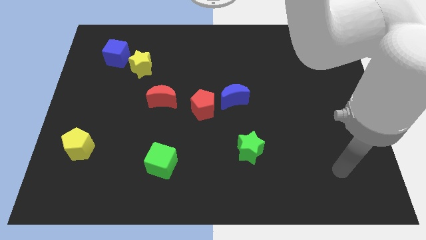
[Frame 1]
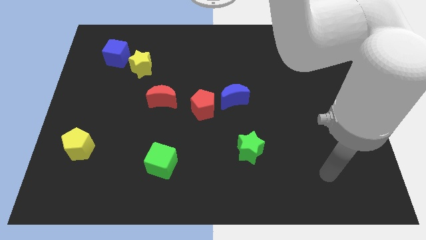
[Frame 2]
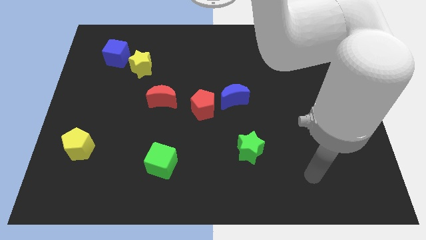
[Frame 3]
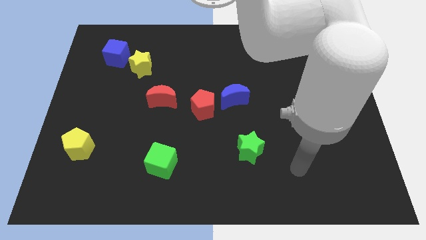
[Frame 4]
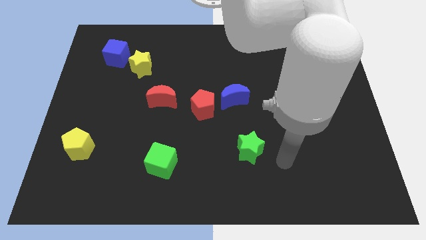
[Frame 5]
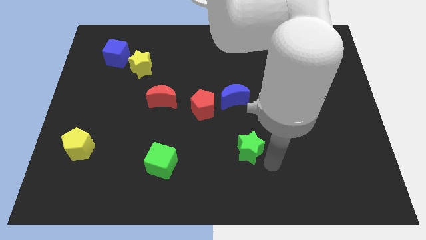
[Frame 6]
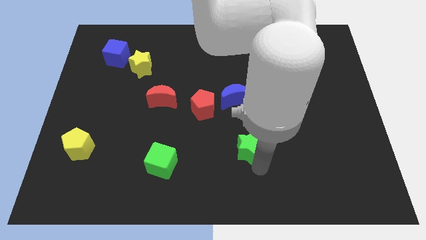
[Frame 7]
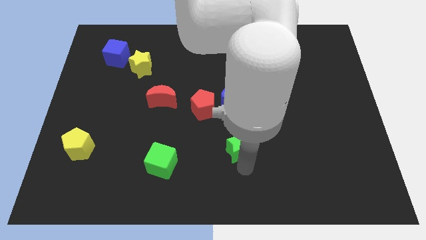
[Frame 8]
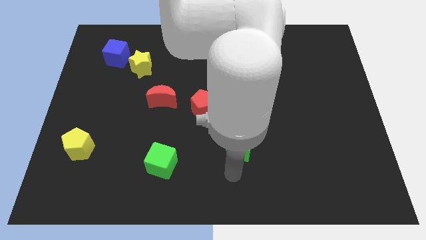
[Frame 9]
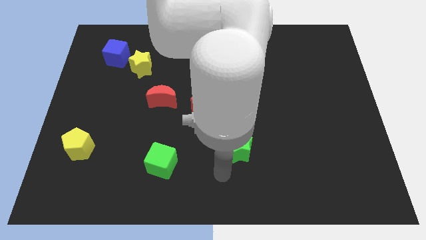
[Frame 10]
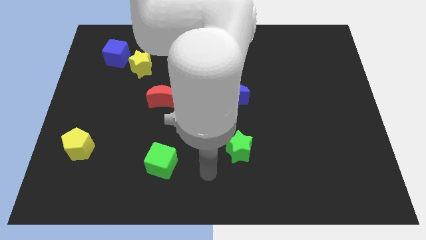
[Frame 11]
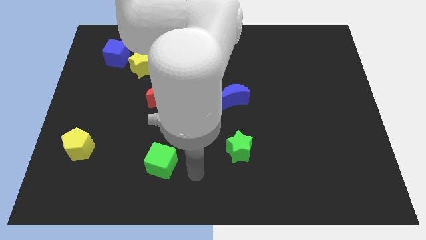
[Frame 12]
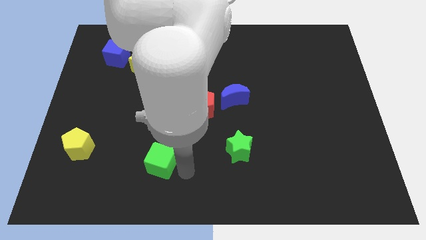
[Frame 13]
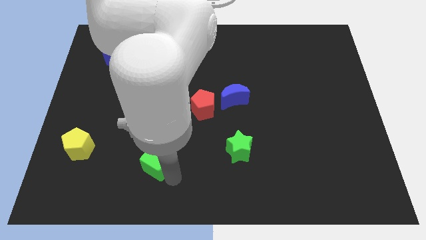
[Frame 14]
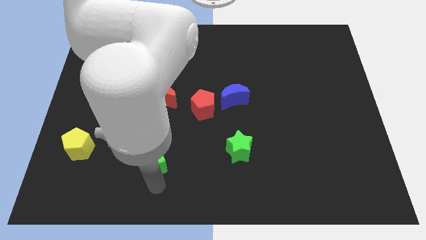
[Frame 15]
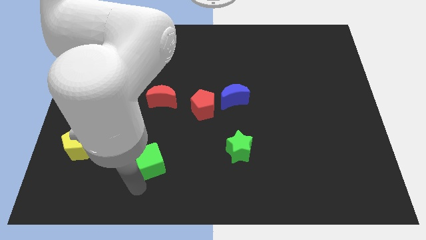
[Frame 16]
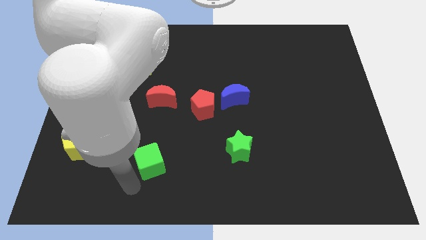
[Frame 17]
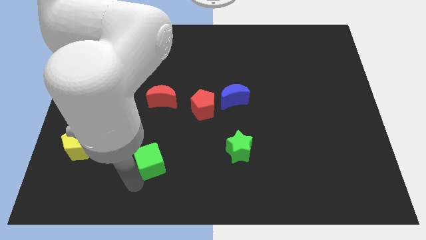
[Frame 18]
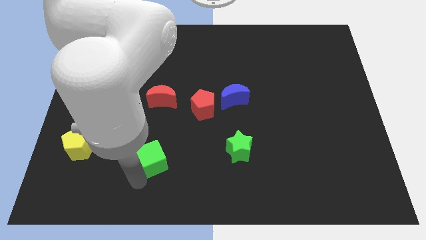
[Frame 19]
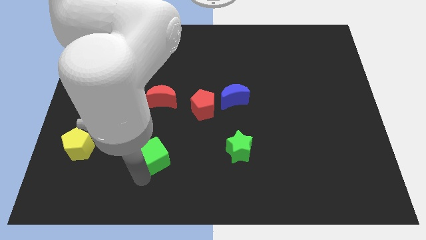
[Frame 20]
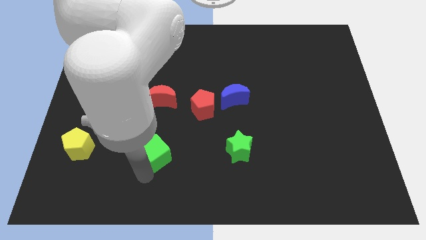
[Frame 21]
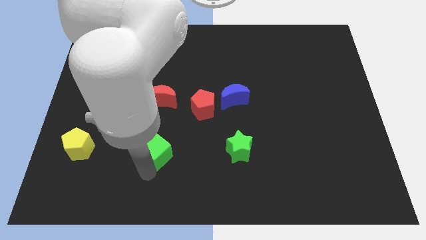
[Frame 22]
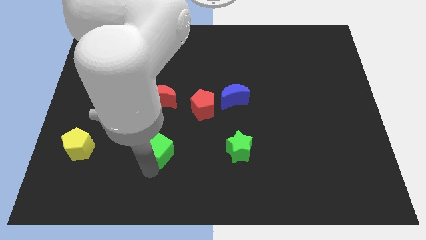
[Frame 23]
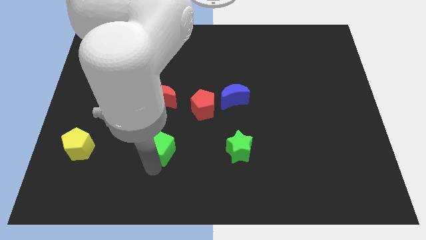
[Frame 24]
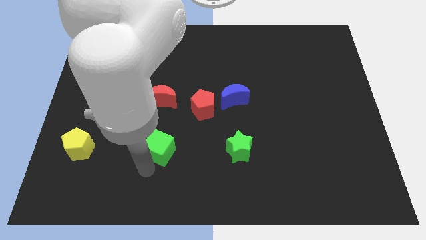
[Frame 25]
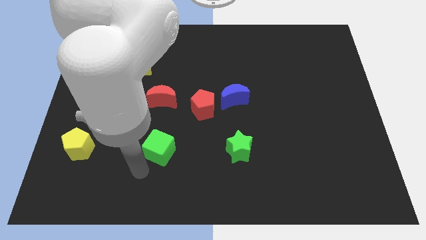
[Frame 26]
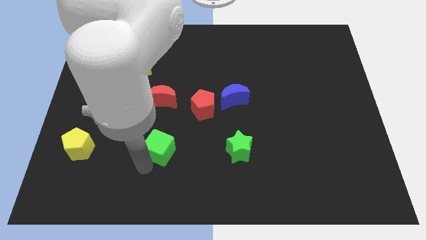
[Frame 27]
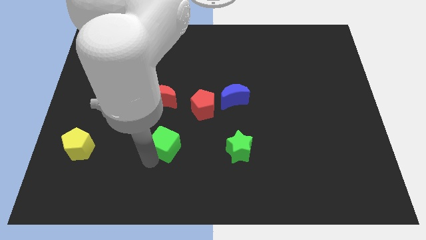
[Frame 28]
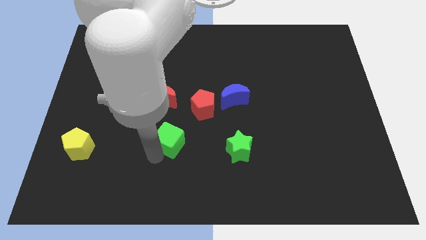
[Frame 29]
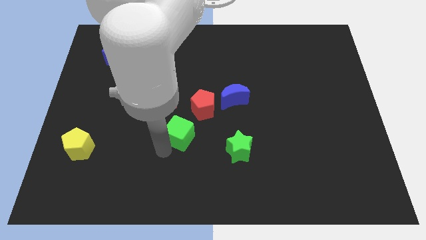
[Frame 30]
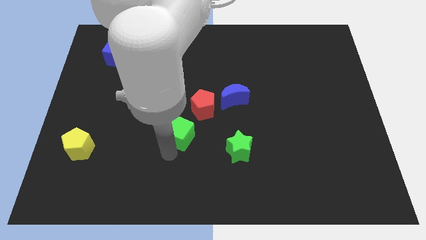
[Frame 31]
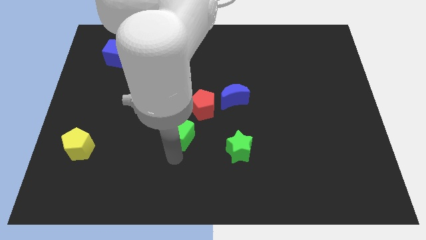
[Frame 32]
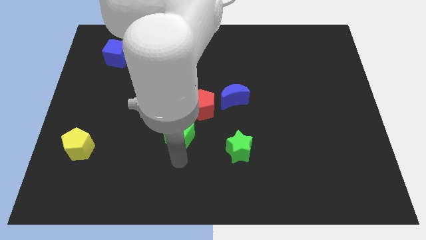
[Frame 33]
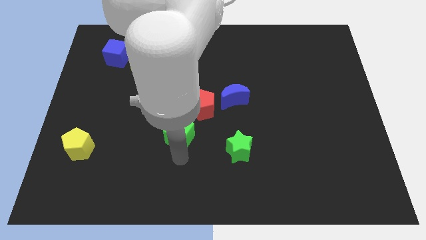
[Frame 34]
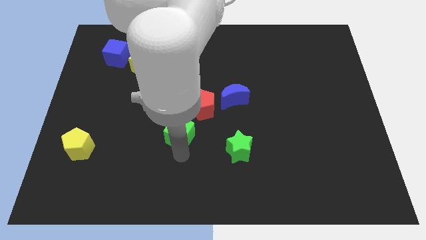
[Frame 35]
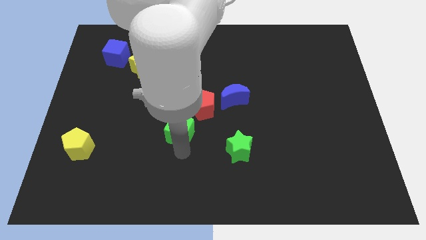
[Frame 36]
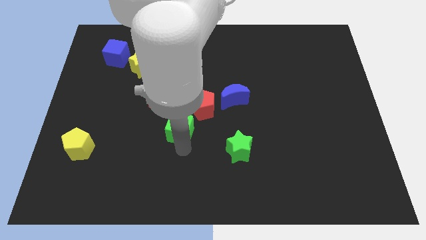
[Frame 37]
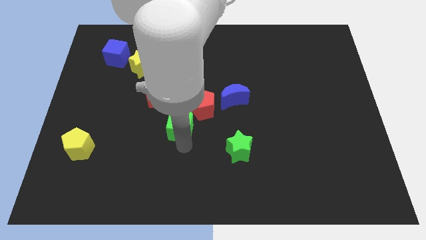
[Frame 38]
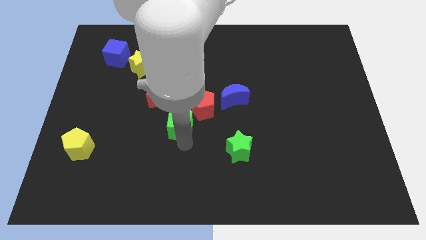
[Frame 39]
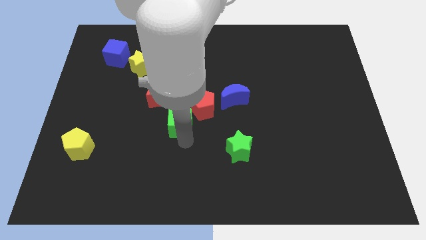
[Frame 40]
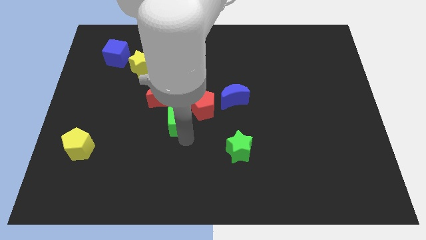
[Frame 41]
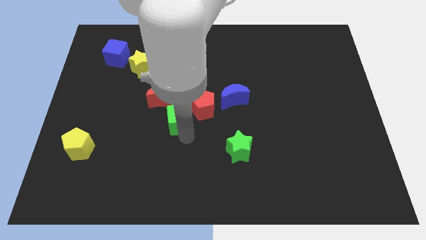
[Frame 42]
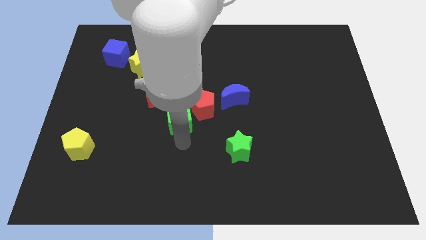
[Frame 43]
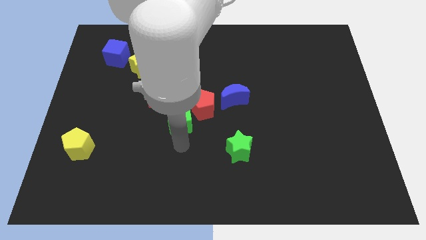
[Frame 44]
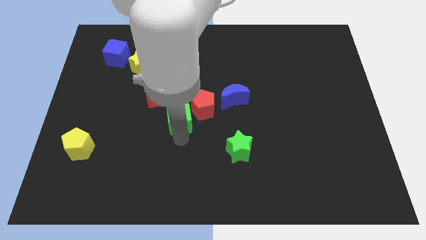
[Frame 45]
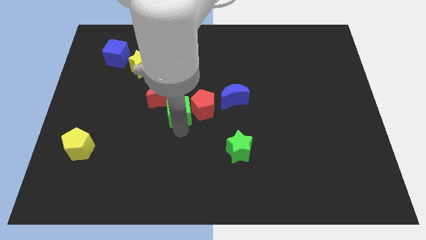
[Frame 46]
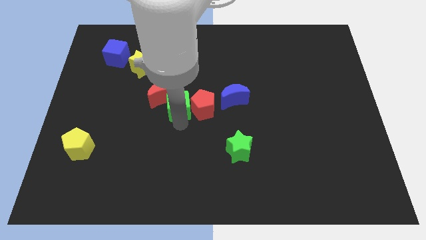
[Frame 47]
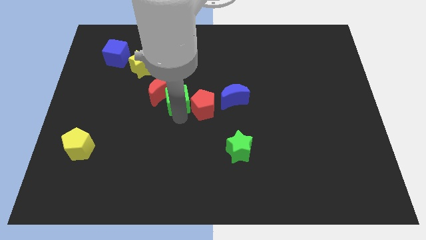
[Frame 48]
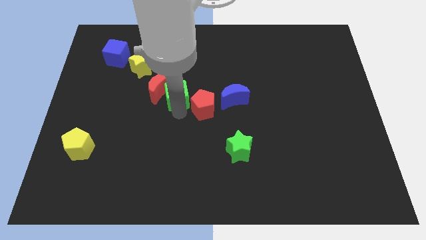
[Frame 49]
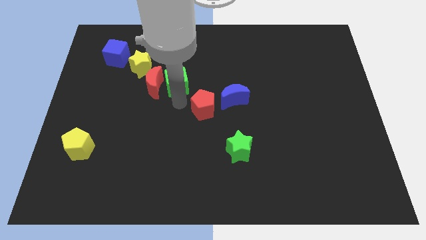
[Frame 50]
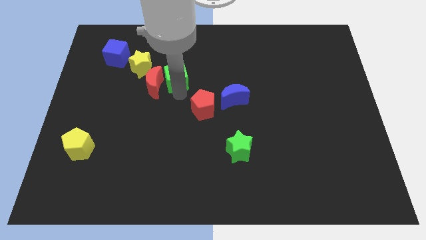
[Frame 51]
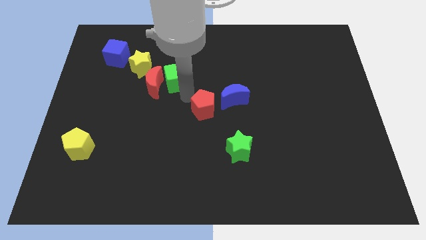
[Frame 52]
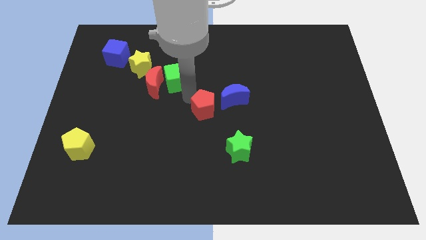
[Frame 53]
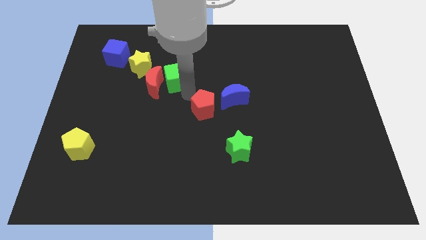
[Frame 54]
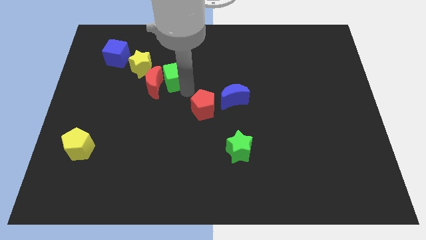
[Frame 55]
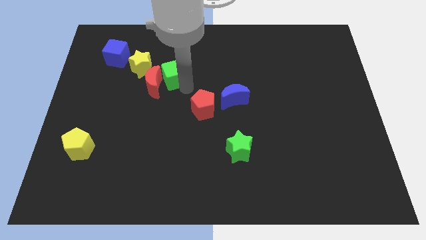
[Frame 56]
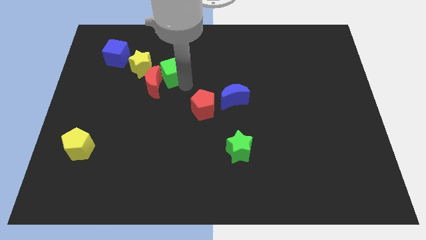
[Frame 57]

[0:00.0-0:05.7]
push the green cube to the top of the red moon
